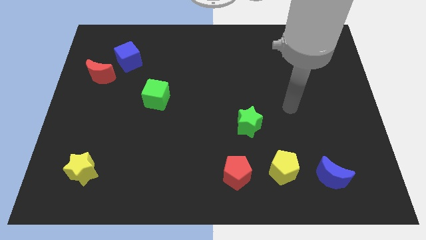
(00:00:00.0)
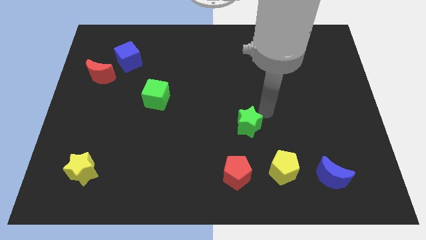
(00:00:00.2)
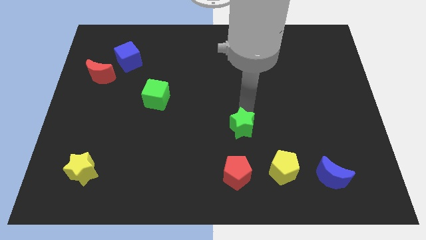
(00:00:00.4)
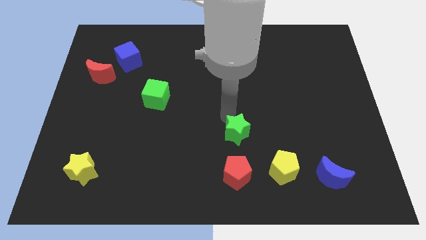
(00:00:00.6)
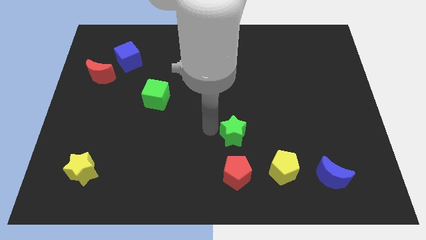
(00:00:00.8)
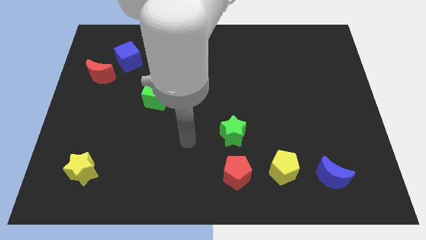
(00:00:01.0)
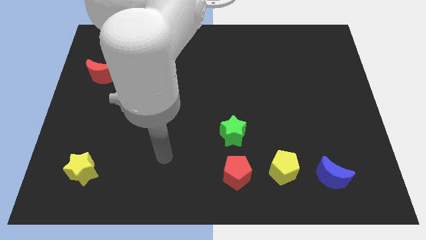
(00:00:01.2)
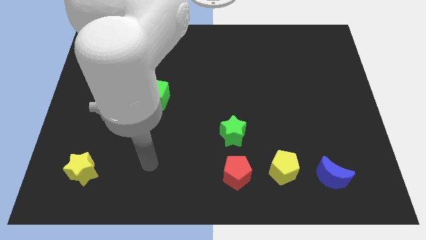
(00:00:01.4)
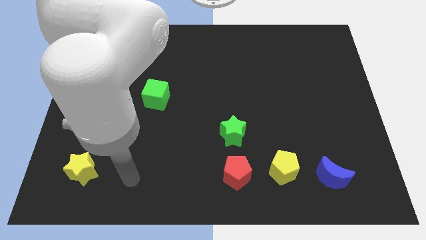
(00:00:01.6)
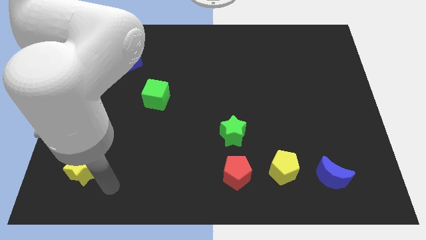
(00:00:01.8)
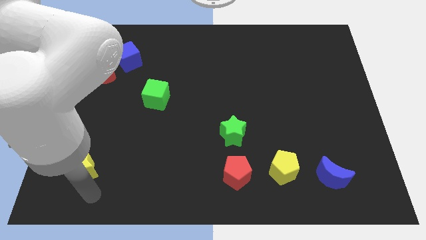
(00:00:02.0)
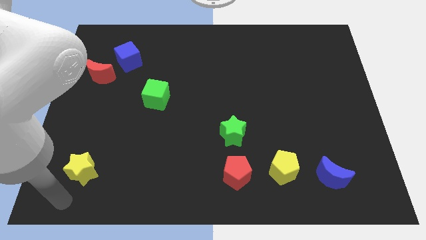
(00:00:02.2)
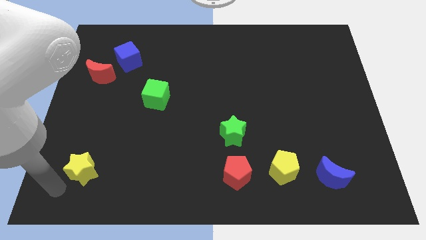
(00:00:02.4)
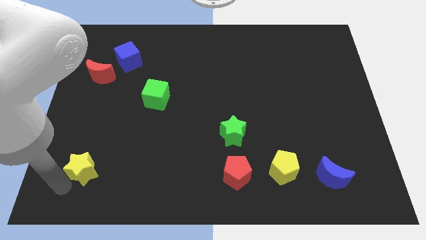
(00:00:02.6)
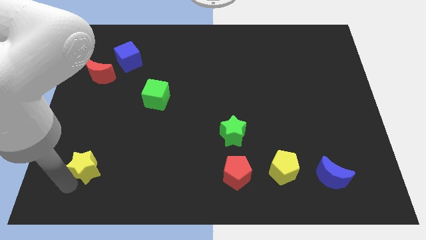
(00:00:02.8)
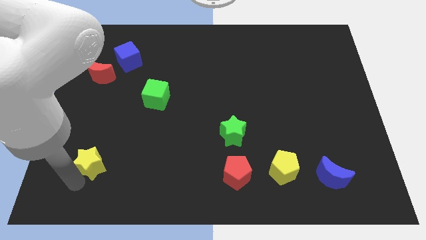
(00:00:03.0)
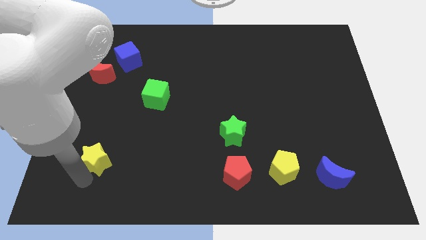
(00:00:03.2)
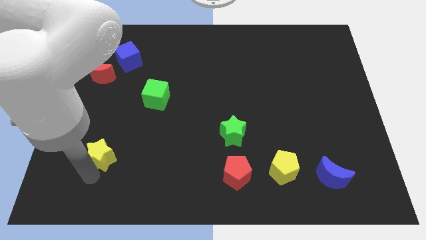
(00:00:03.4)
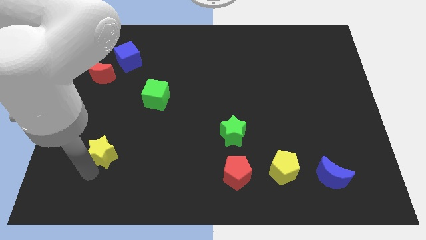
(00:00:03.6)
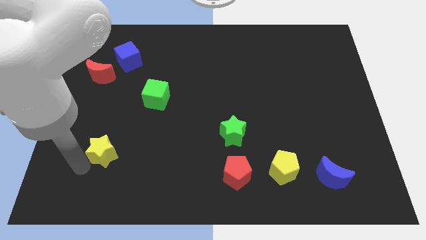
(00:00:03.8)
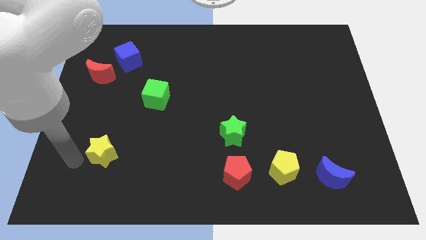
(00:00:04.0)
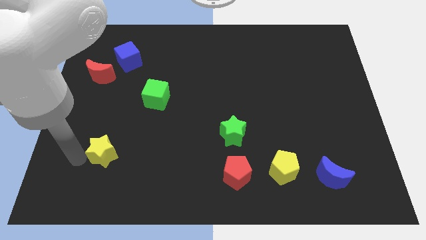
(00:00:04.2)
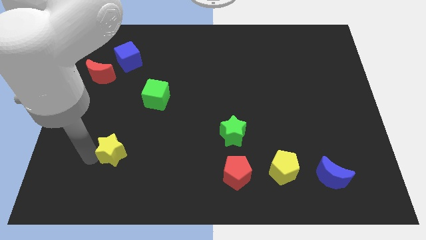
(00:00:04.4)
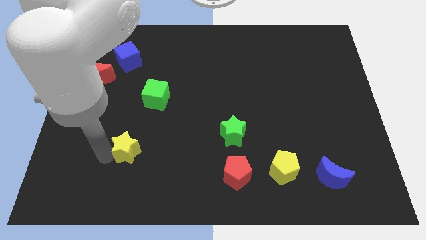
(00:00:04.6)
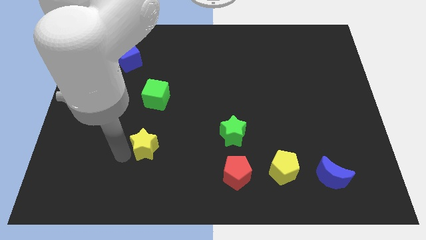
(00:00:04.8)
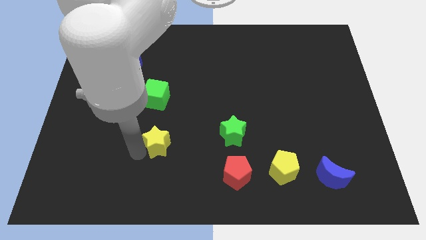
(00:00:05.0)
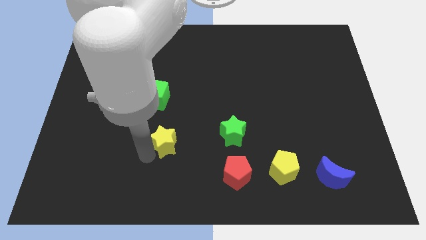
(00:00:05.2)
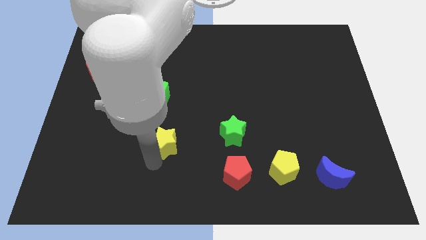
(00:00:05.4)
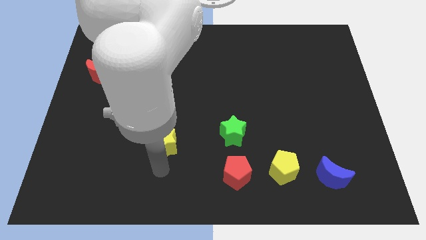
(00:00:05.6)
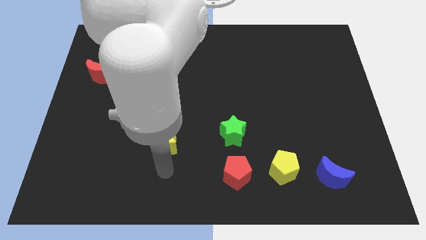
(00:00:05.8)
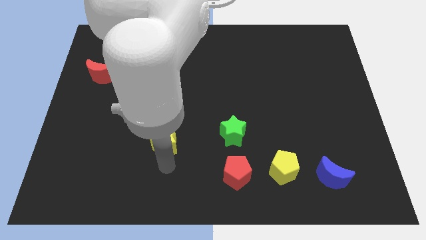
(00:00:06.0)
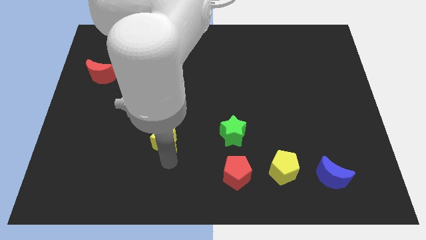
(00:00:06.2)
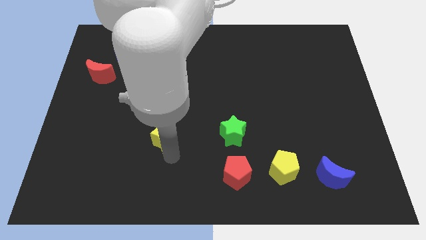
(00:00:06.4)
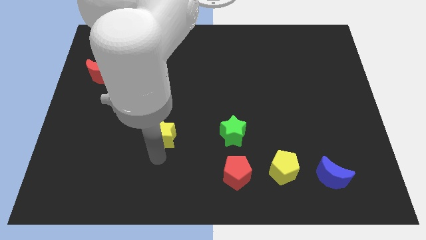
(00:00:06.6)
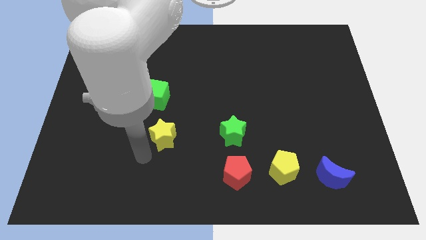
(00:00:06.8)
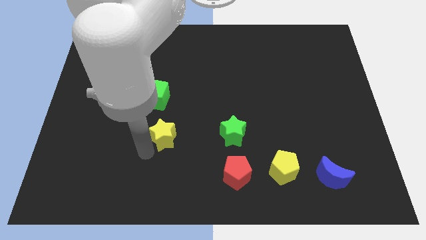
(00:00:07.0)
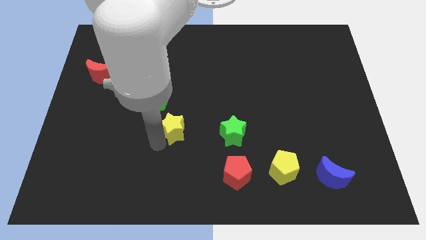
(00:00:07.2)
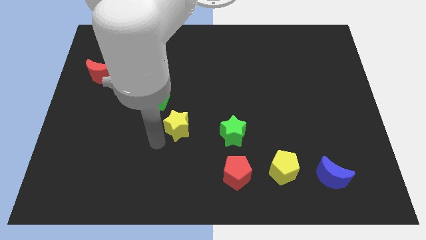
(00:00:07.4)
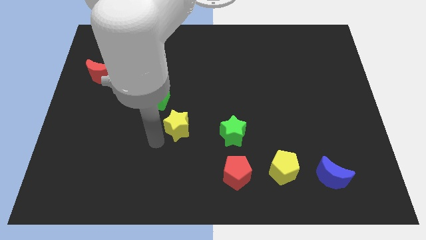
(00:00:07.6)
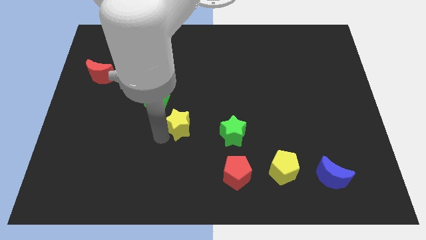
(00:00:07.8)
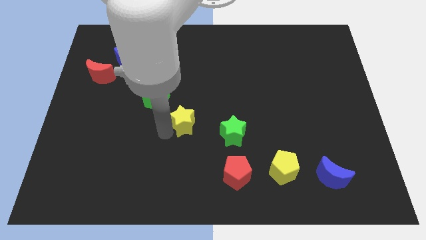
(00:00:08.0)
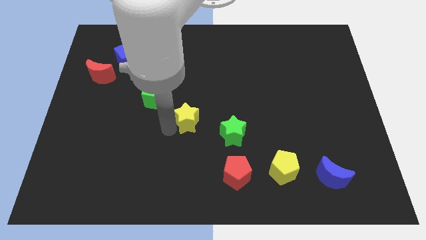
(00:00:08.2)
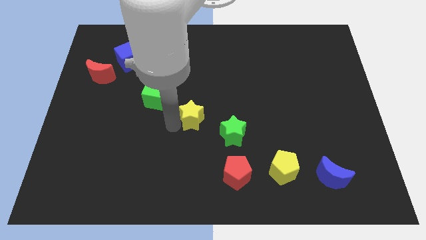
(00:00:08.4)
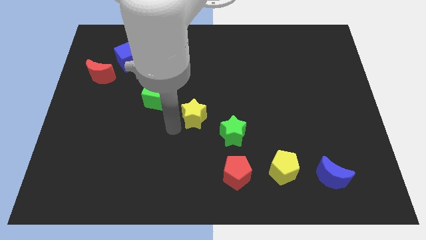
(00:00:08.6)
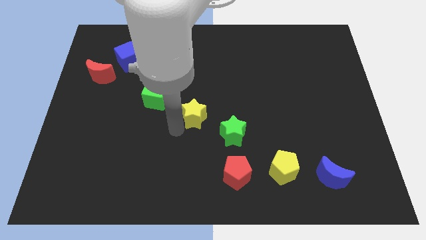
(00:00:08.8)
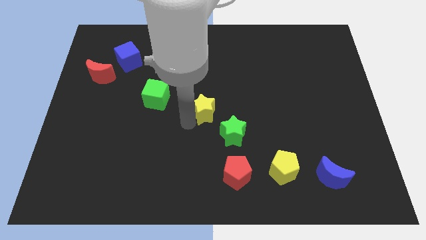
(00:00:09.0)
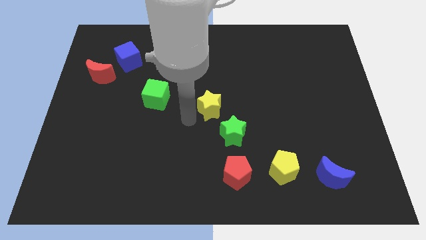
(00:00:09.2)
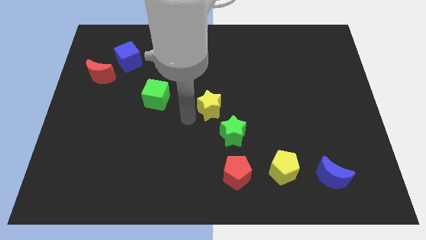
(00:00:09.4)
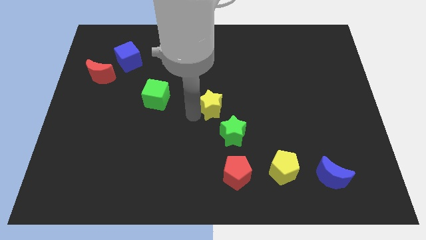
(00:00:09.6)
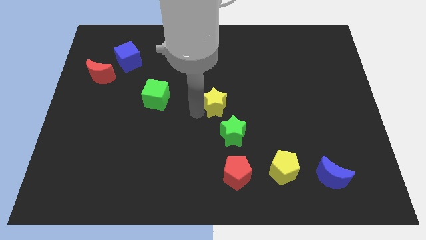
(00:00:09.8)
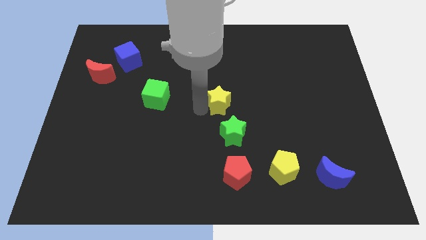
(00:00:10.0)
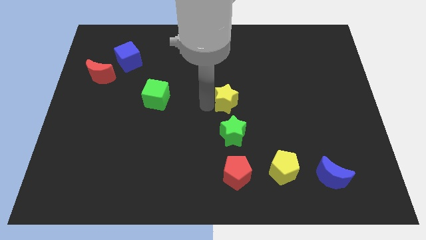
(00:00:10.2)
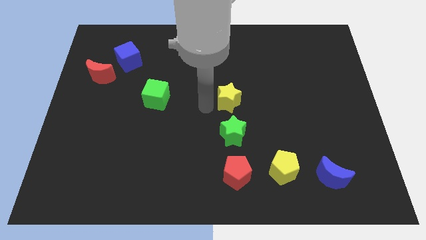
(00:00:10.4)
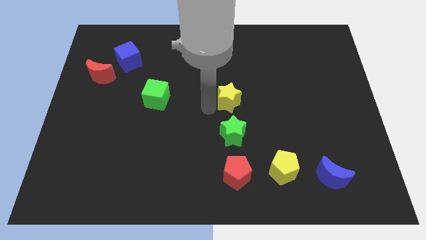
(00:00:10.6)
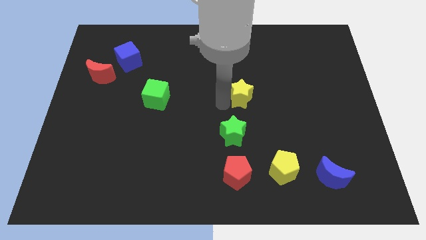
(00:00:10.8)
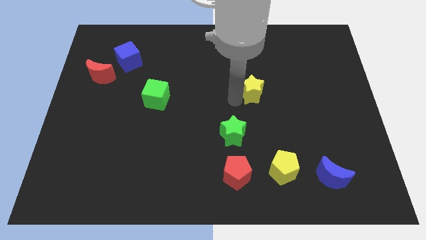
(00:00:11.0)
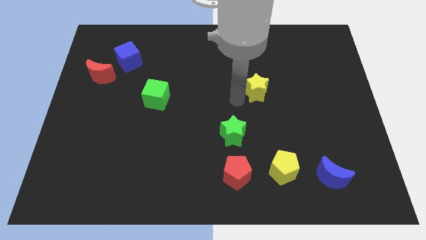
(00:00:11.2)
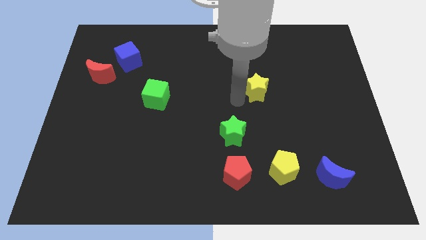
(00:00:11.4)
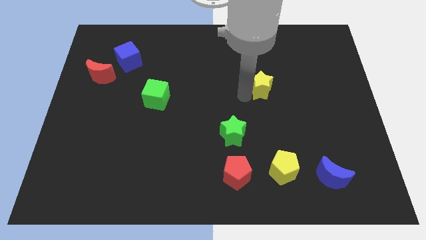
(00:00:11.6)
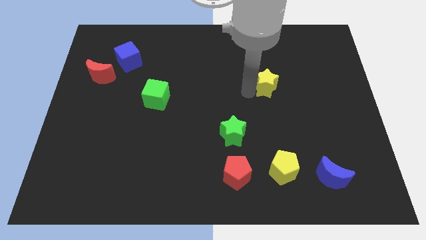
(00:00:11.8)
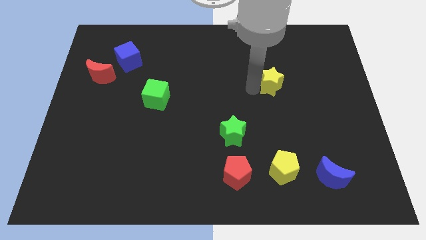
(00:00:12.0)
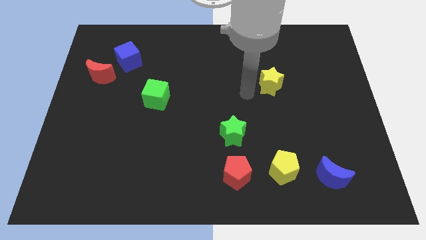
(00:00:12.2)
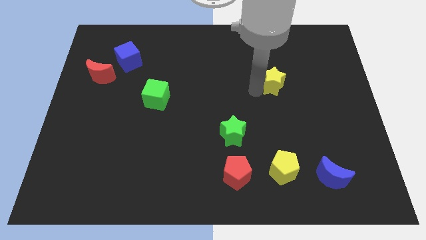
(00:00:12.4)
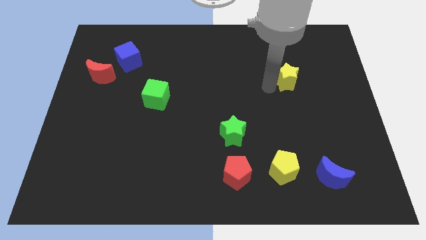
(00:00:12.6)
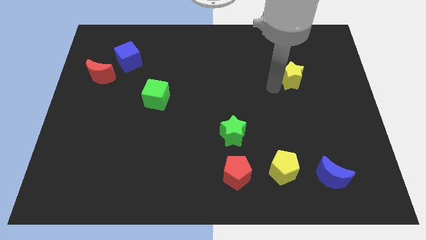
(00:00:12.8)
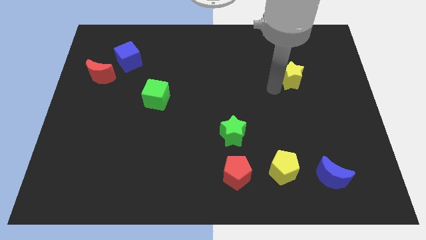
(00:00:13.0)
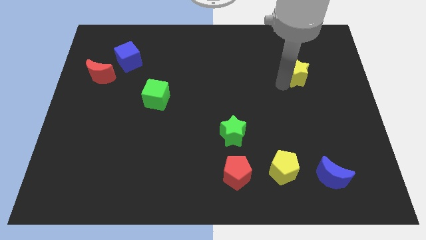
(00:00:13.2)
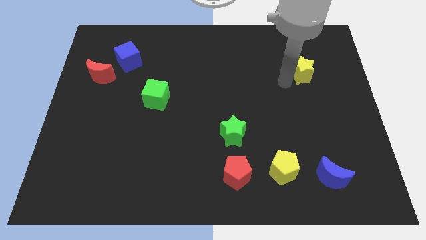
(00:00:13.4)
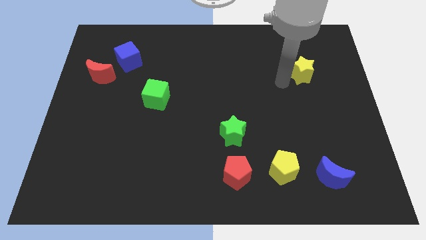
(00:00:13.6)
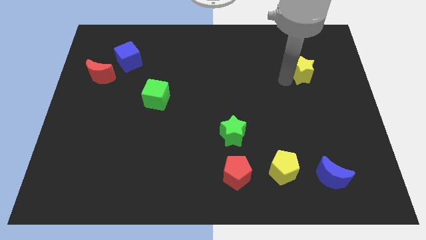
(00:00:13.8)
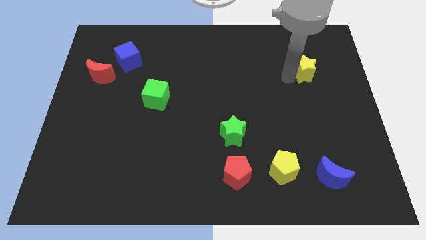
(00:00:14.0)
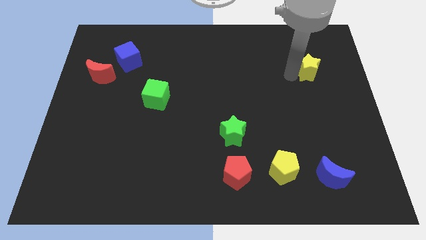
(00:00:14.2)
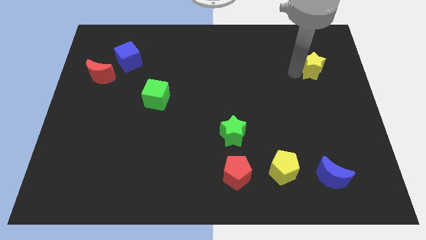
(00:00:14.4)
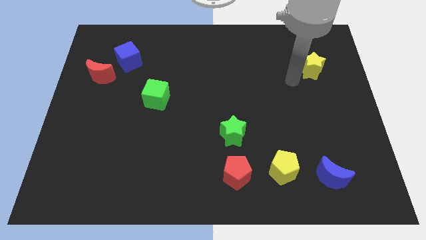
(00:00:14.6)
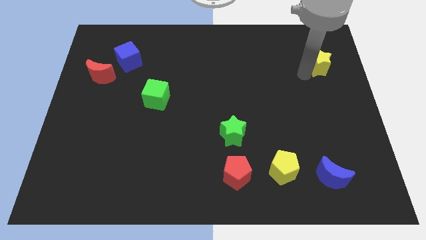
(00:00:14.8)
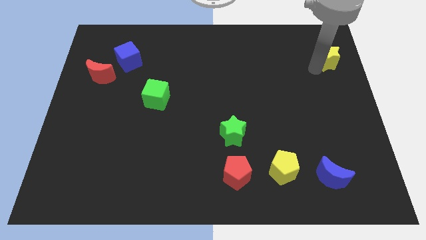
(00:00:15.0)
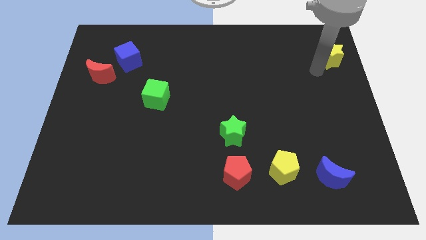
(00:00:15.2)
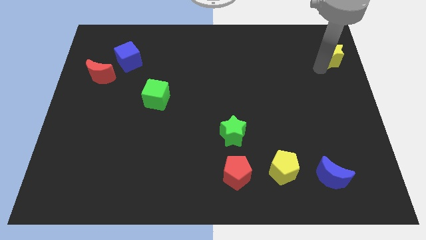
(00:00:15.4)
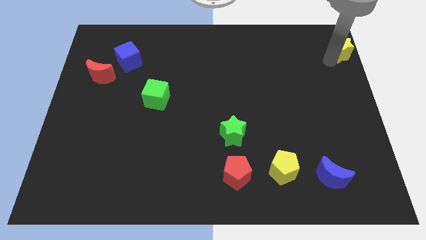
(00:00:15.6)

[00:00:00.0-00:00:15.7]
slide the yellow star to the upper right corner
